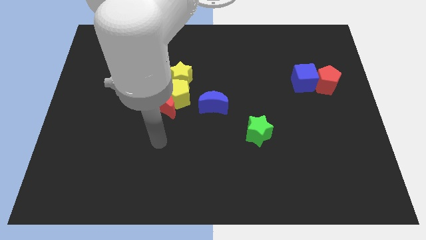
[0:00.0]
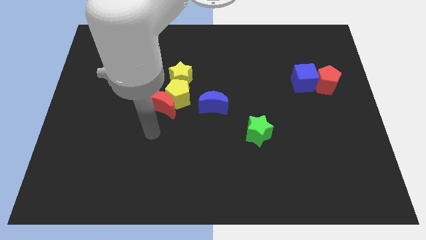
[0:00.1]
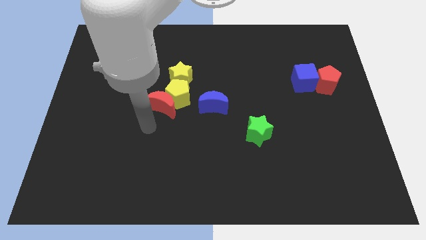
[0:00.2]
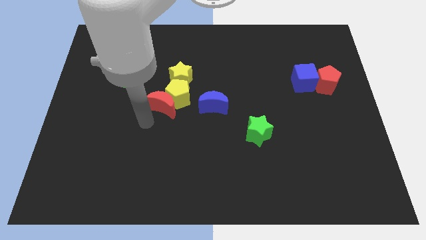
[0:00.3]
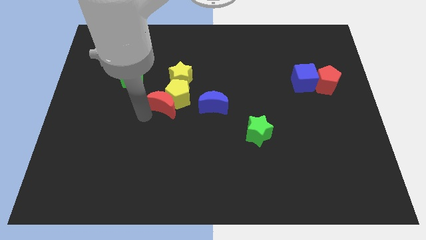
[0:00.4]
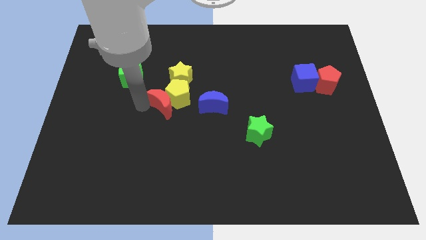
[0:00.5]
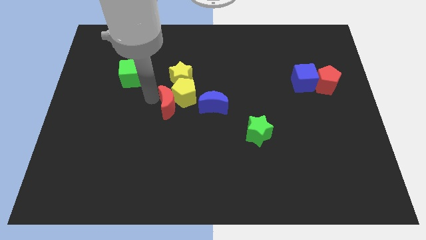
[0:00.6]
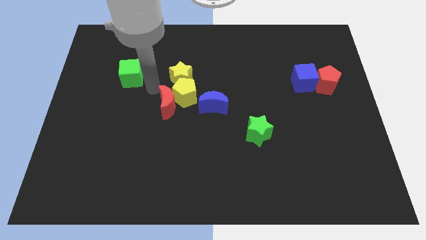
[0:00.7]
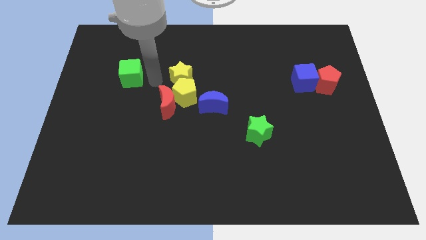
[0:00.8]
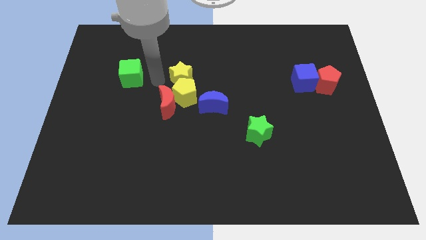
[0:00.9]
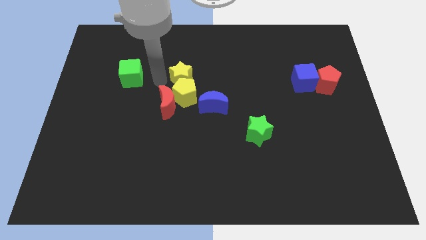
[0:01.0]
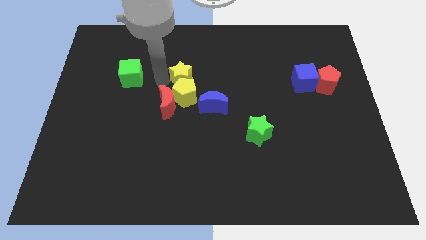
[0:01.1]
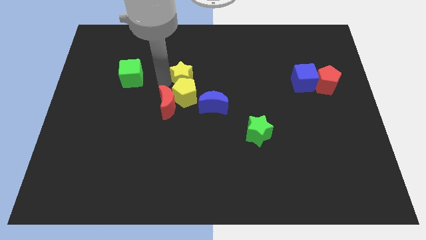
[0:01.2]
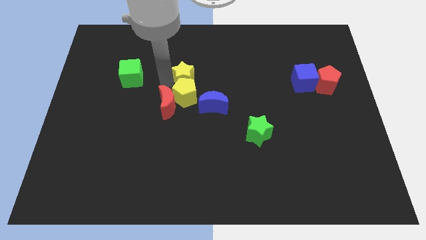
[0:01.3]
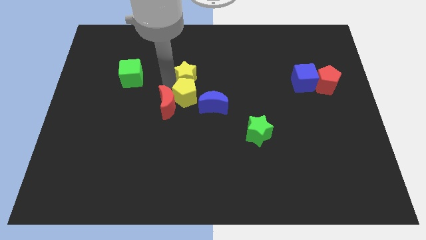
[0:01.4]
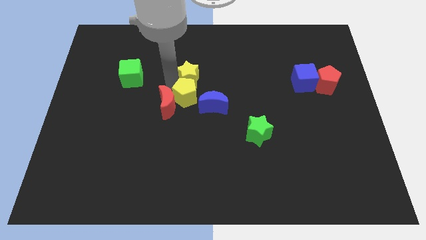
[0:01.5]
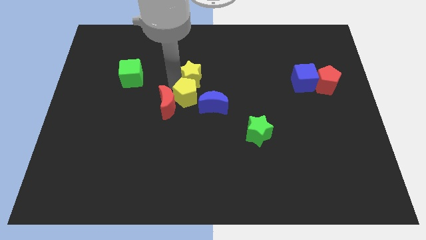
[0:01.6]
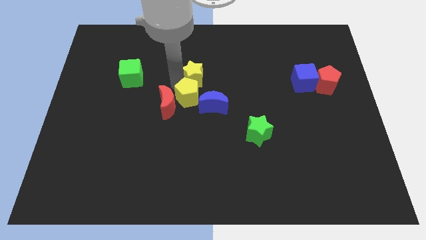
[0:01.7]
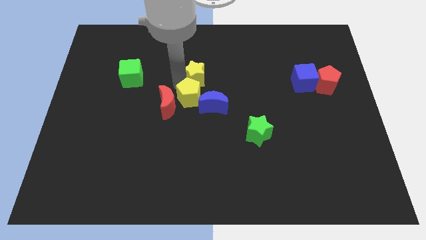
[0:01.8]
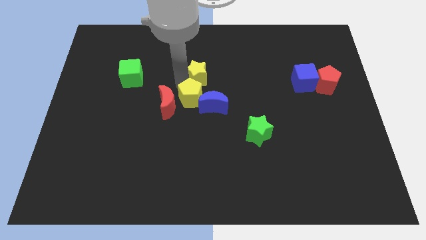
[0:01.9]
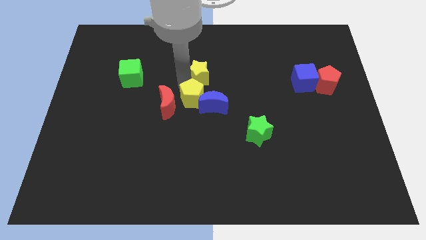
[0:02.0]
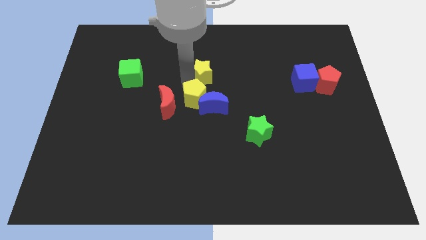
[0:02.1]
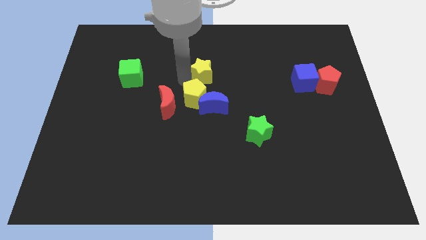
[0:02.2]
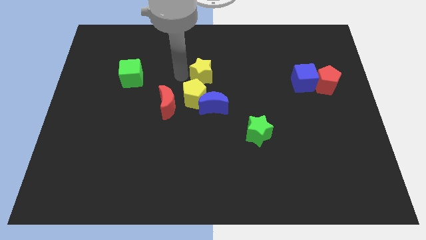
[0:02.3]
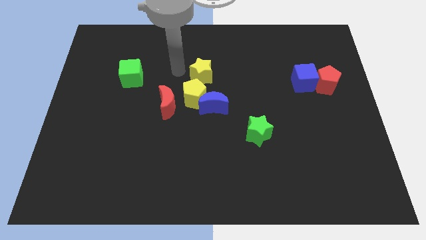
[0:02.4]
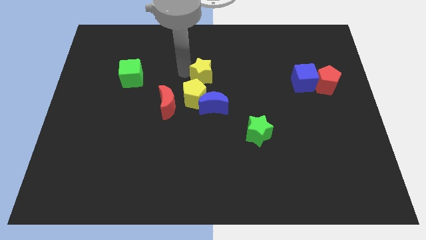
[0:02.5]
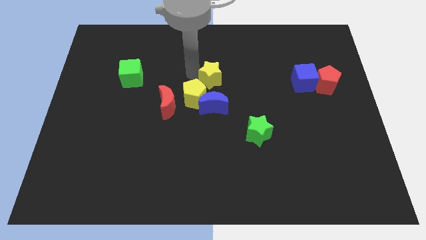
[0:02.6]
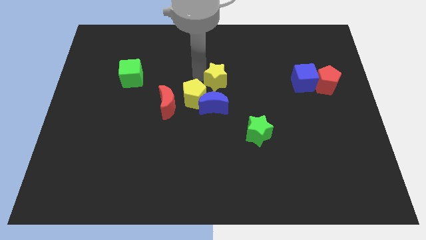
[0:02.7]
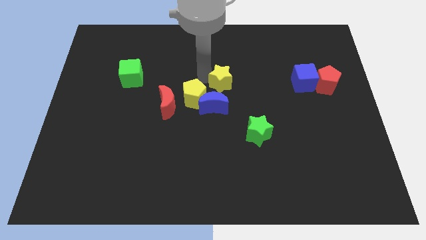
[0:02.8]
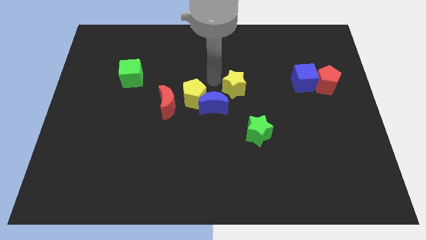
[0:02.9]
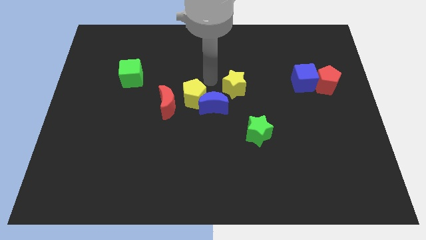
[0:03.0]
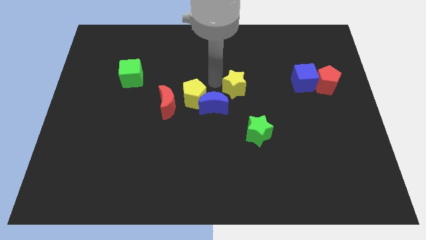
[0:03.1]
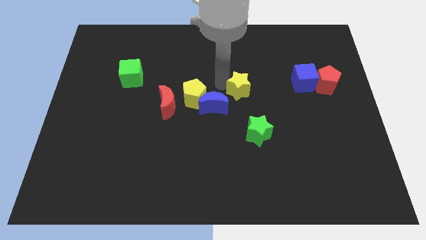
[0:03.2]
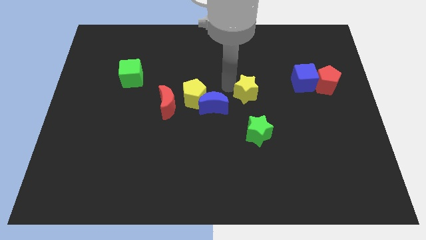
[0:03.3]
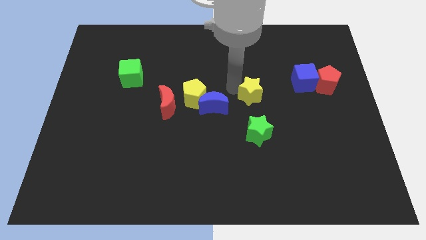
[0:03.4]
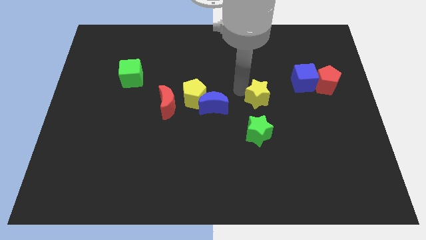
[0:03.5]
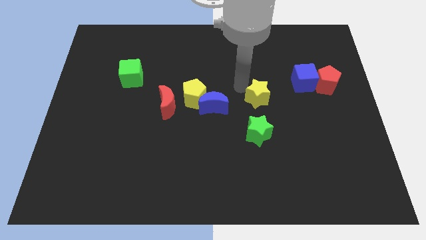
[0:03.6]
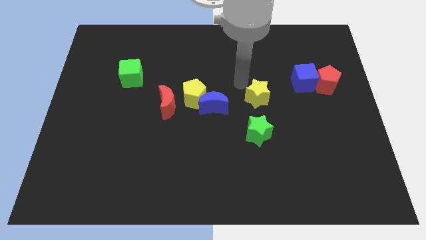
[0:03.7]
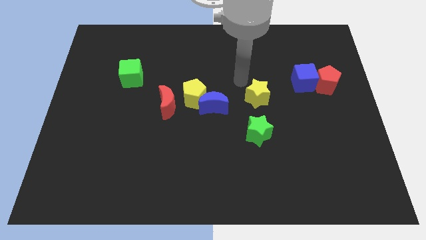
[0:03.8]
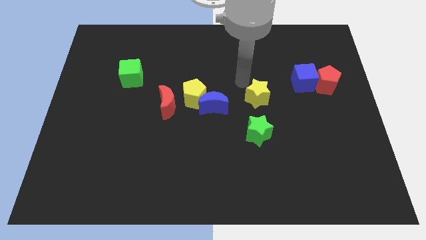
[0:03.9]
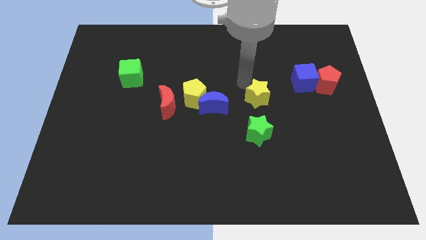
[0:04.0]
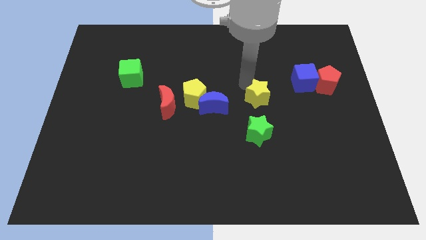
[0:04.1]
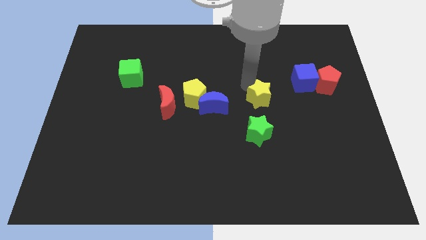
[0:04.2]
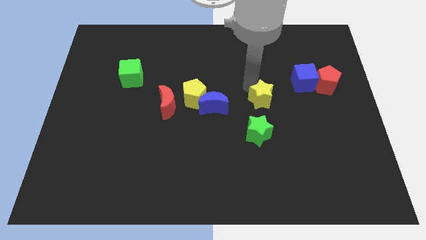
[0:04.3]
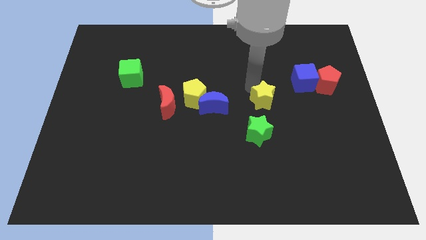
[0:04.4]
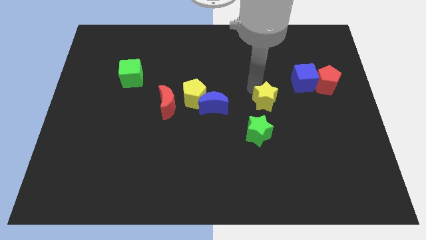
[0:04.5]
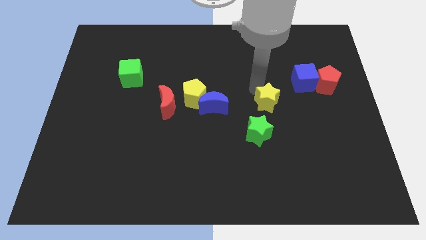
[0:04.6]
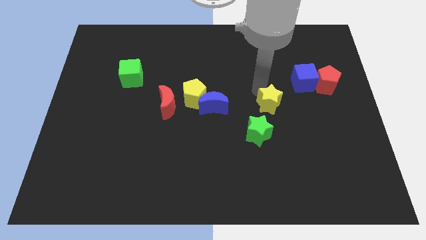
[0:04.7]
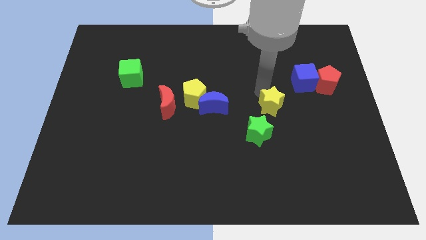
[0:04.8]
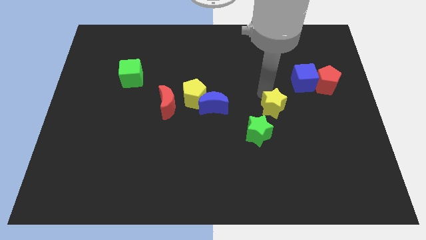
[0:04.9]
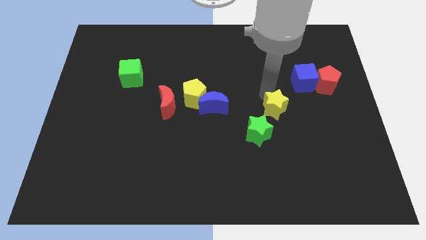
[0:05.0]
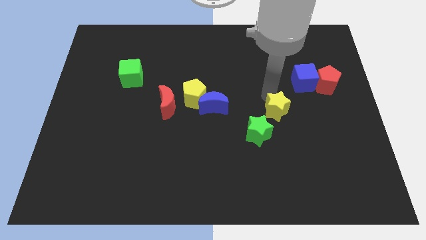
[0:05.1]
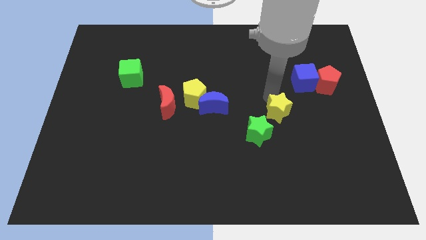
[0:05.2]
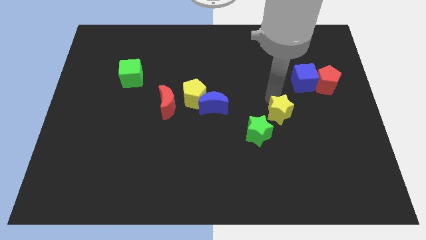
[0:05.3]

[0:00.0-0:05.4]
move the yellow star downwards and to the right

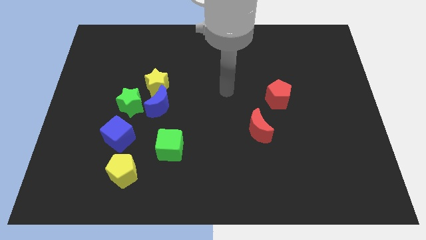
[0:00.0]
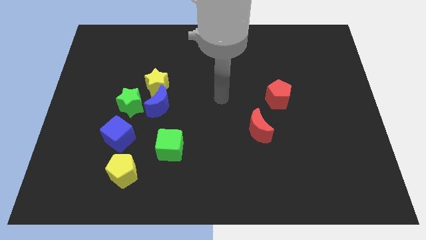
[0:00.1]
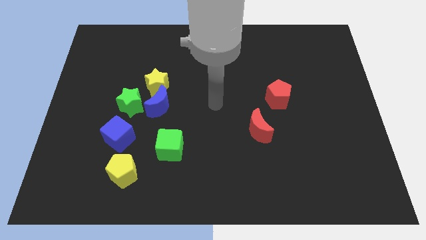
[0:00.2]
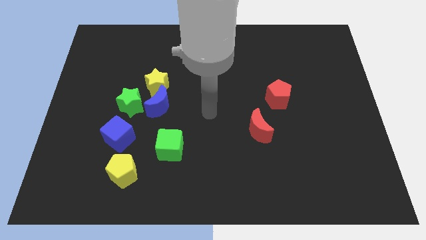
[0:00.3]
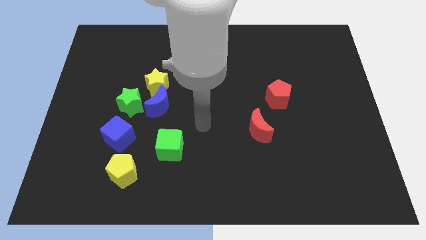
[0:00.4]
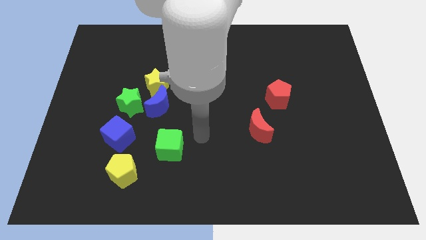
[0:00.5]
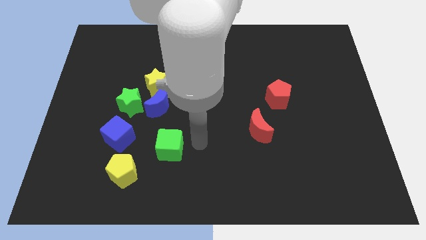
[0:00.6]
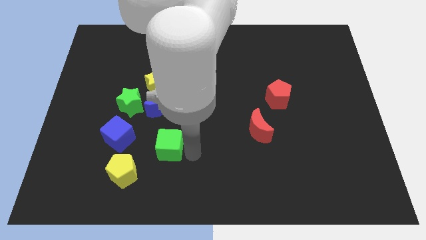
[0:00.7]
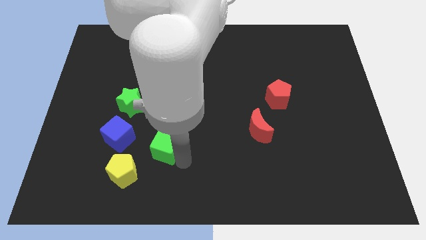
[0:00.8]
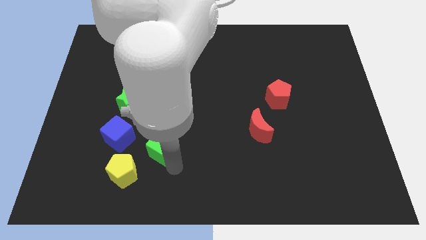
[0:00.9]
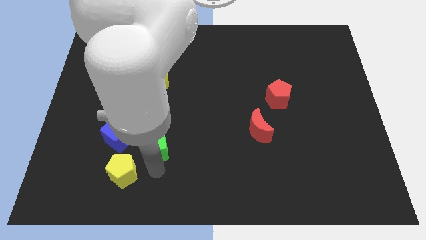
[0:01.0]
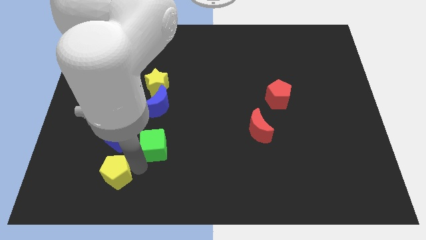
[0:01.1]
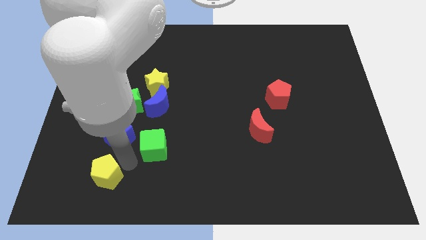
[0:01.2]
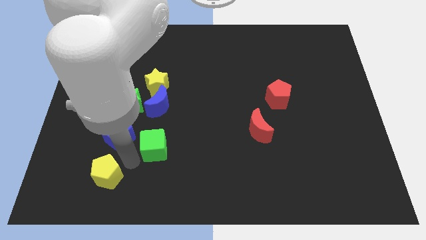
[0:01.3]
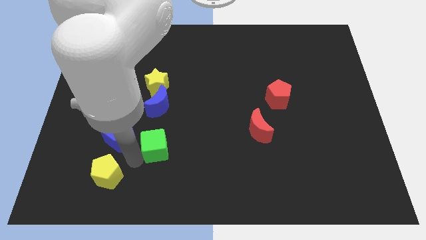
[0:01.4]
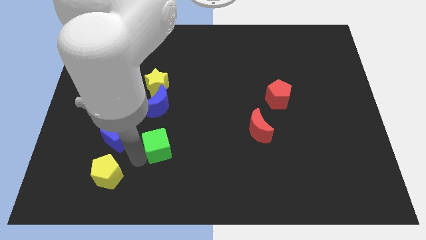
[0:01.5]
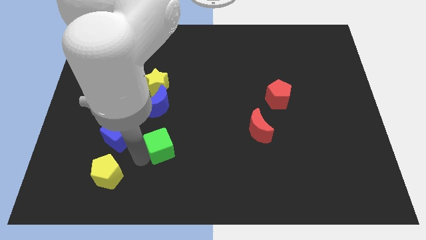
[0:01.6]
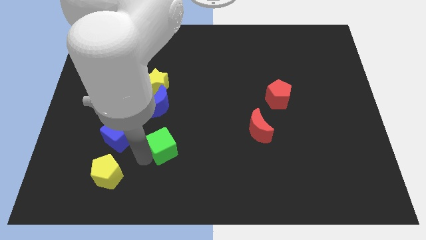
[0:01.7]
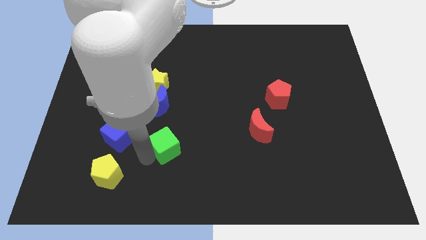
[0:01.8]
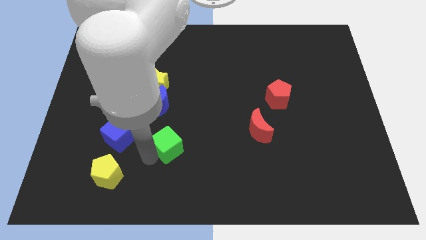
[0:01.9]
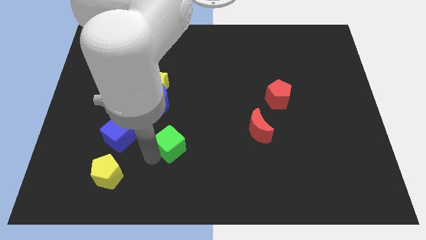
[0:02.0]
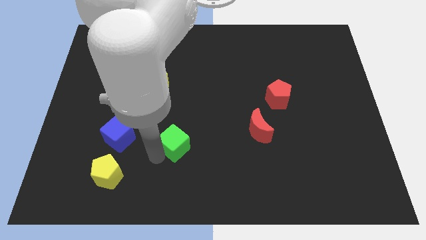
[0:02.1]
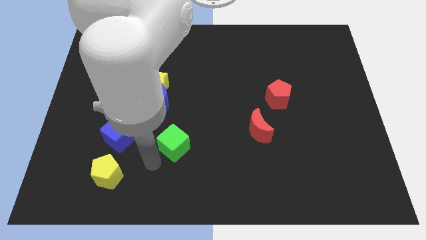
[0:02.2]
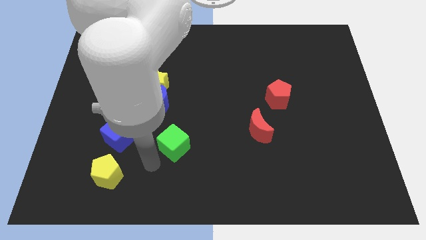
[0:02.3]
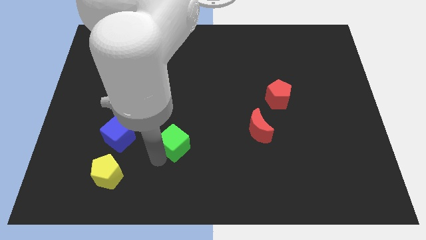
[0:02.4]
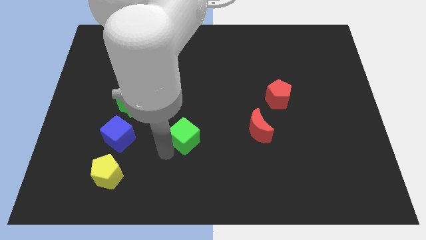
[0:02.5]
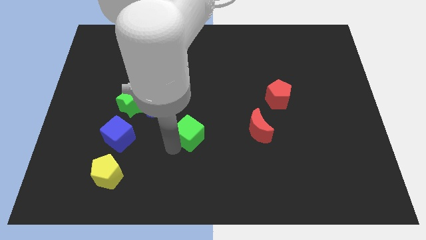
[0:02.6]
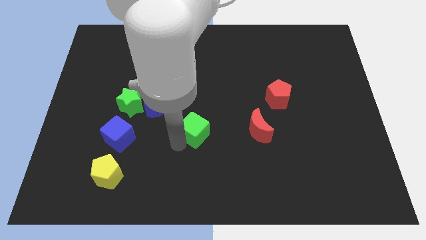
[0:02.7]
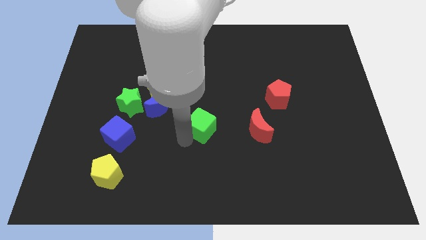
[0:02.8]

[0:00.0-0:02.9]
push the green cube somewhat upwards and right diagonally
